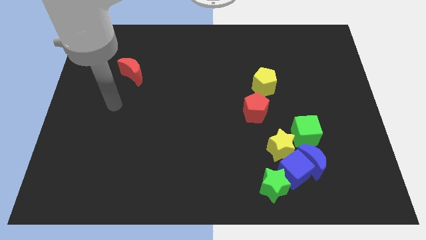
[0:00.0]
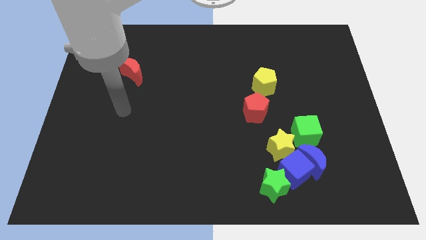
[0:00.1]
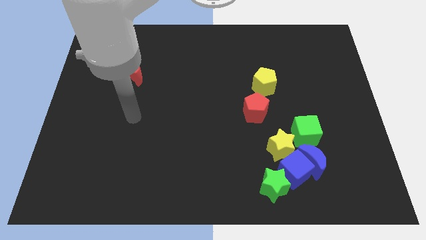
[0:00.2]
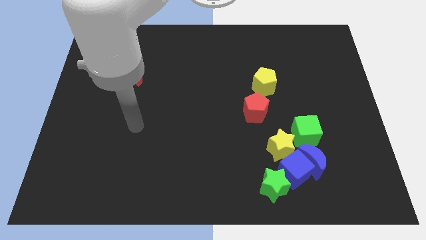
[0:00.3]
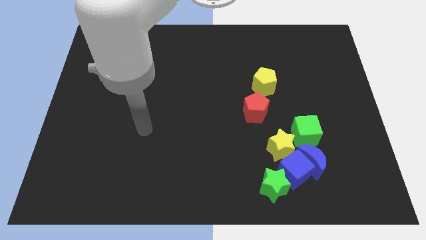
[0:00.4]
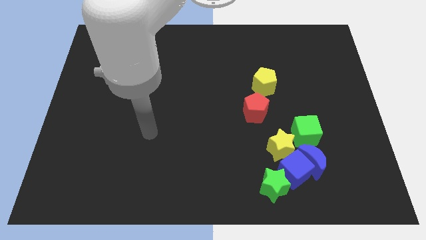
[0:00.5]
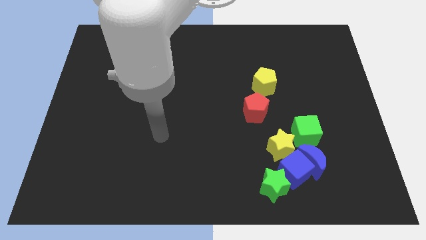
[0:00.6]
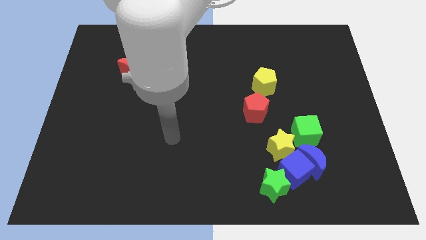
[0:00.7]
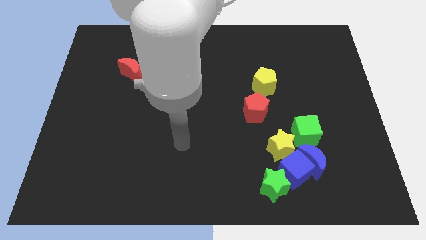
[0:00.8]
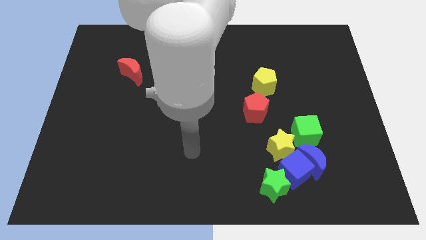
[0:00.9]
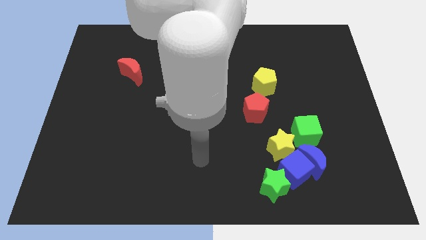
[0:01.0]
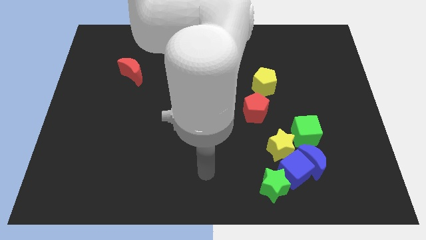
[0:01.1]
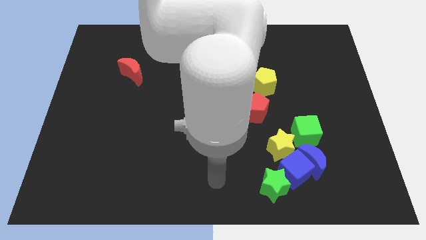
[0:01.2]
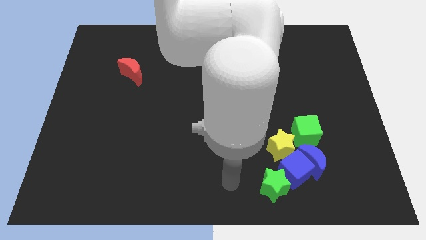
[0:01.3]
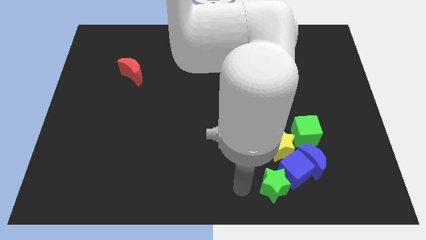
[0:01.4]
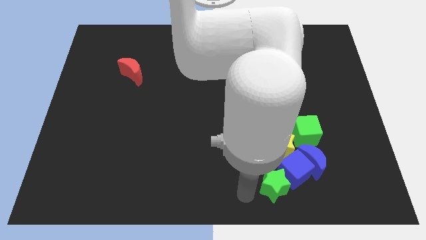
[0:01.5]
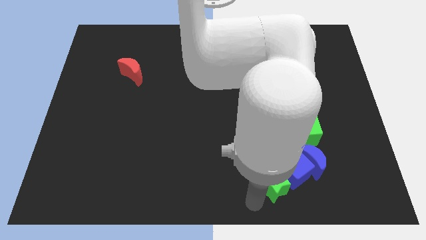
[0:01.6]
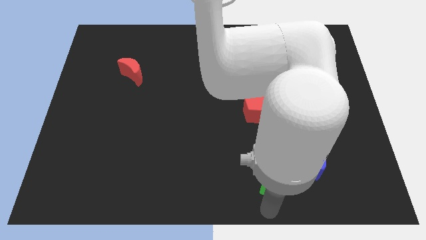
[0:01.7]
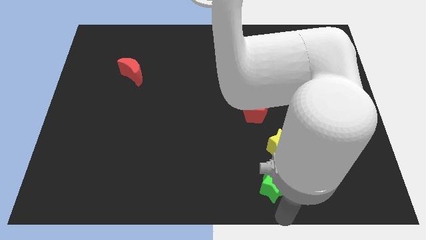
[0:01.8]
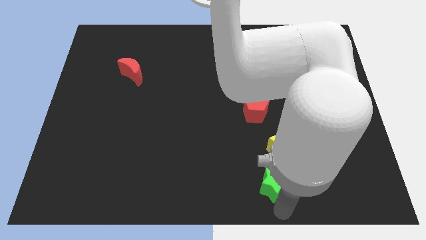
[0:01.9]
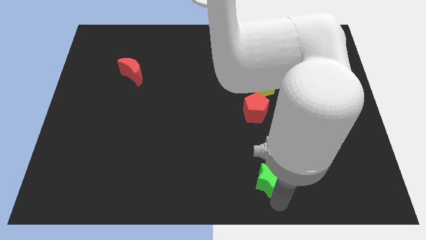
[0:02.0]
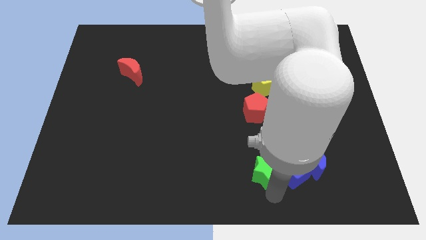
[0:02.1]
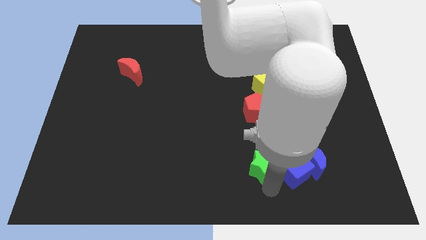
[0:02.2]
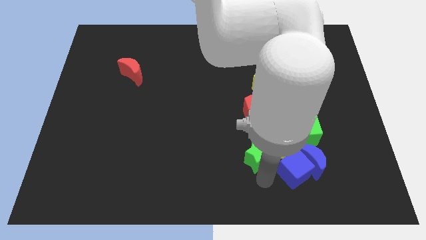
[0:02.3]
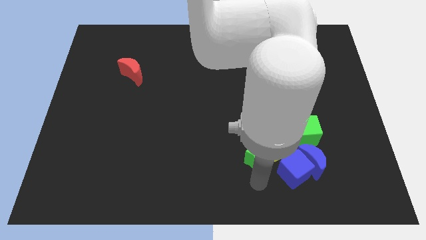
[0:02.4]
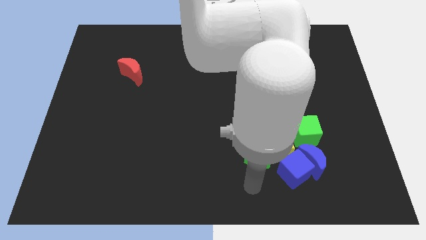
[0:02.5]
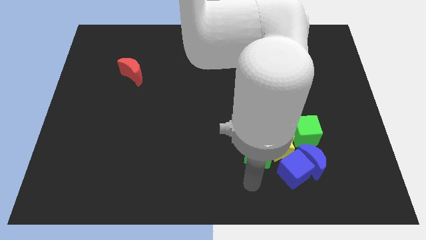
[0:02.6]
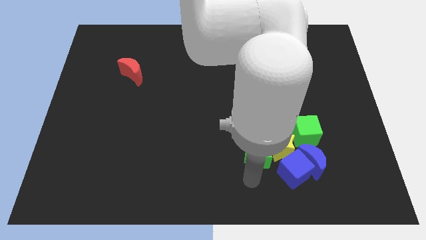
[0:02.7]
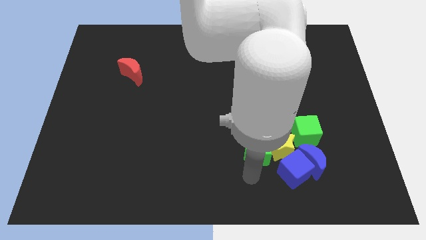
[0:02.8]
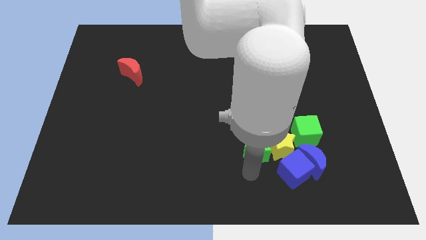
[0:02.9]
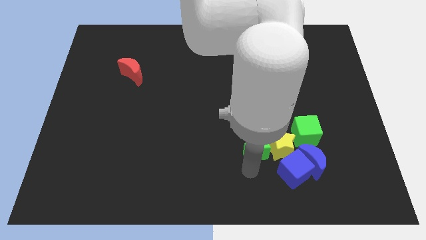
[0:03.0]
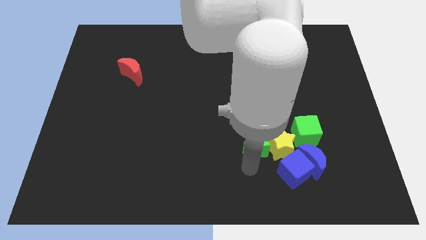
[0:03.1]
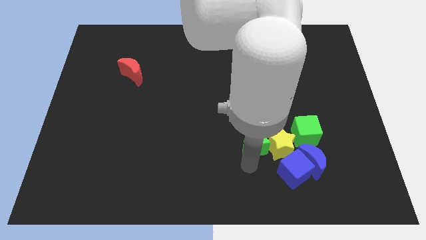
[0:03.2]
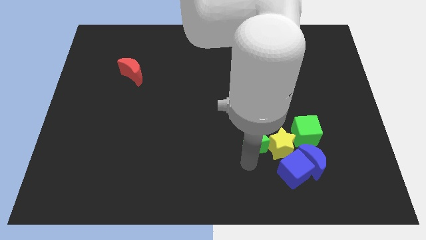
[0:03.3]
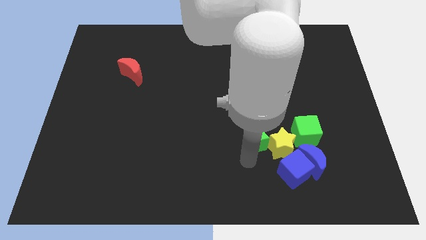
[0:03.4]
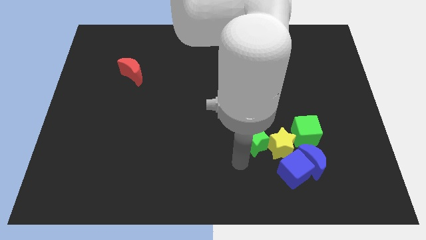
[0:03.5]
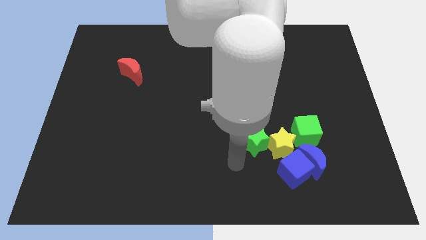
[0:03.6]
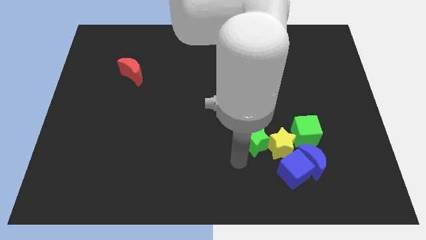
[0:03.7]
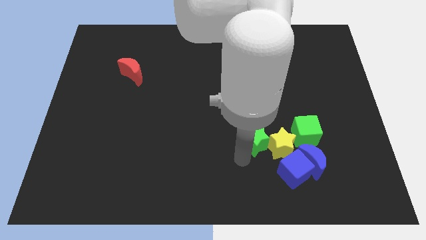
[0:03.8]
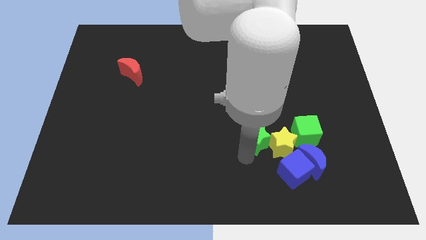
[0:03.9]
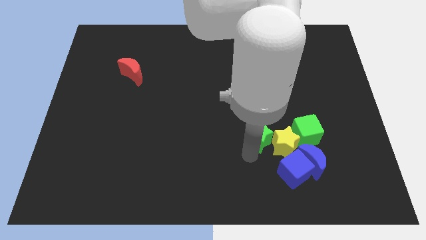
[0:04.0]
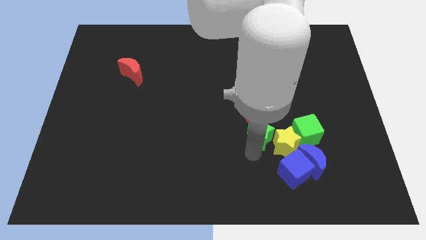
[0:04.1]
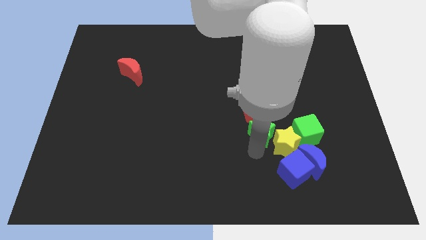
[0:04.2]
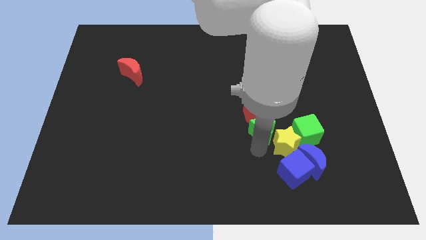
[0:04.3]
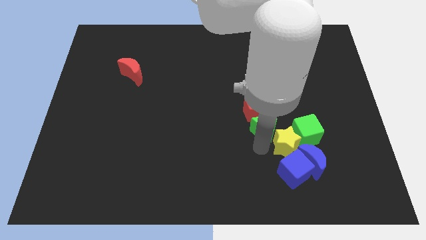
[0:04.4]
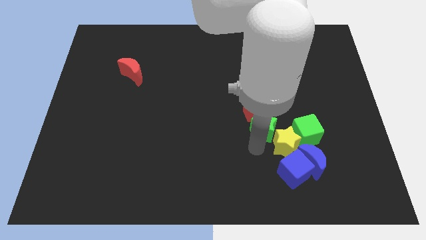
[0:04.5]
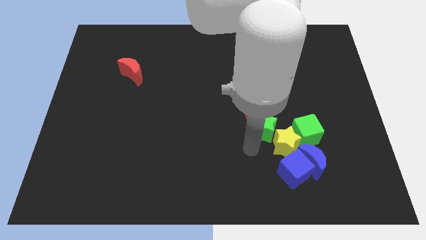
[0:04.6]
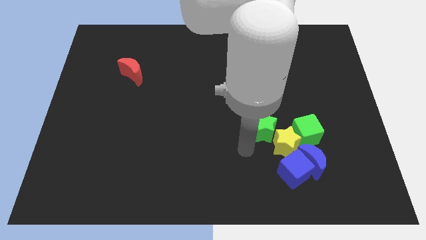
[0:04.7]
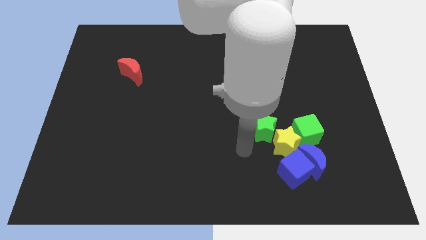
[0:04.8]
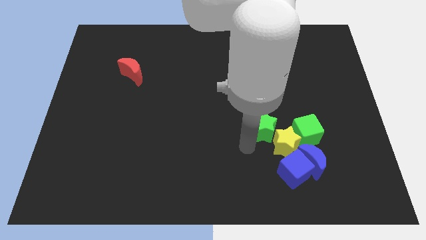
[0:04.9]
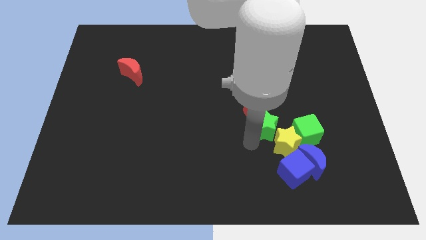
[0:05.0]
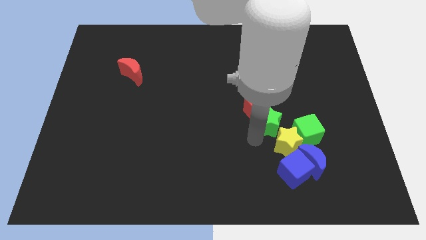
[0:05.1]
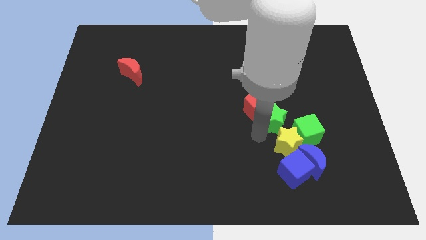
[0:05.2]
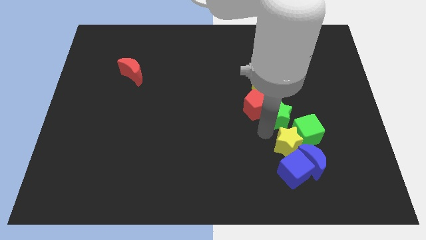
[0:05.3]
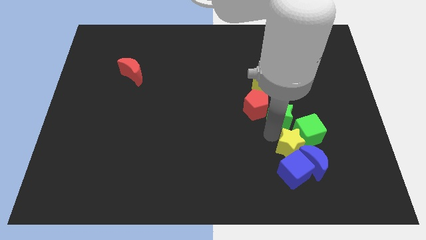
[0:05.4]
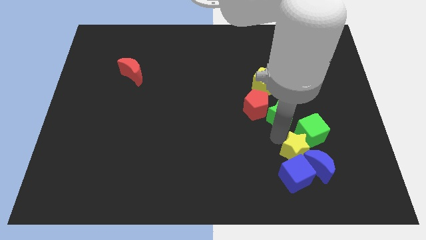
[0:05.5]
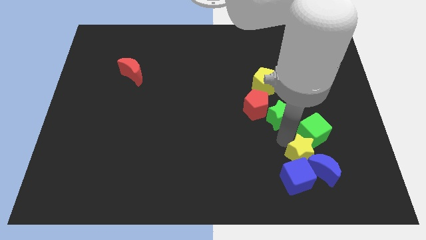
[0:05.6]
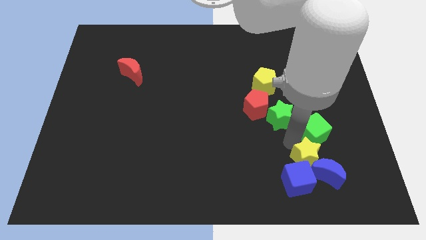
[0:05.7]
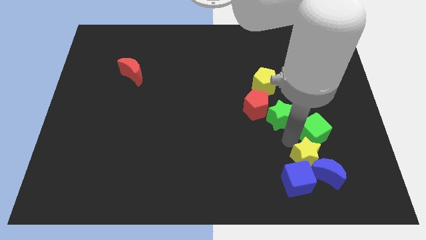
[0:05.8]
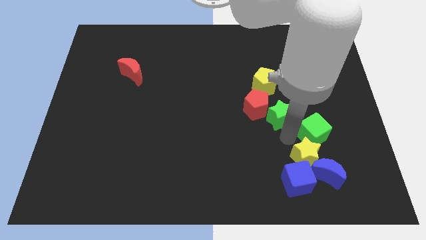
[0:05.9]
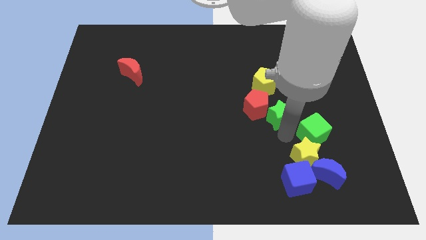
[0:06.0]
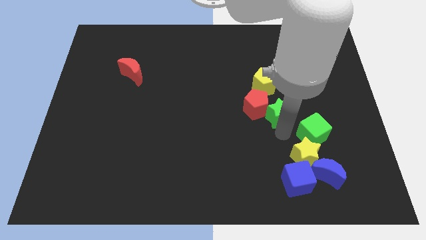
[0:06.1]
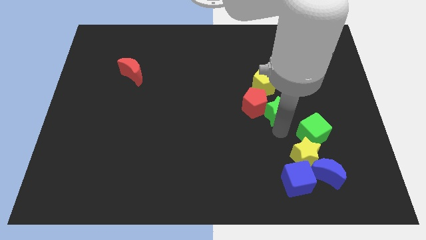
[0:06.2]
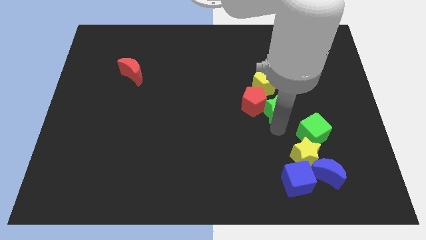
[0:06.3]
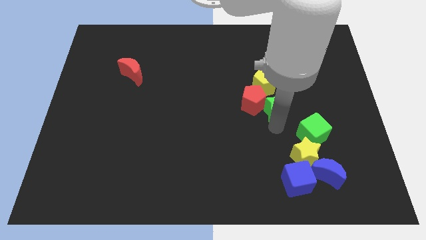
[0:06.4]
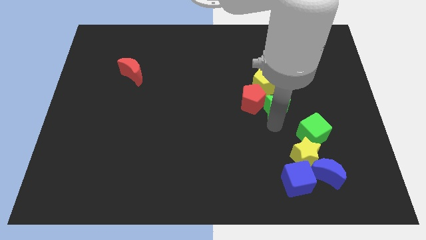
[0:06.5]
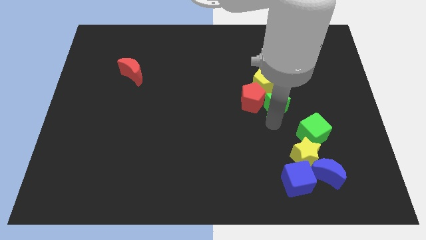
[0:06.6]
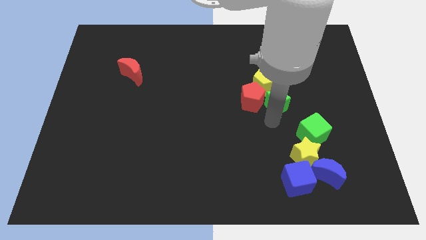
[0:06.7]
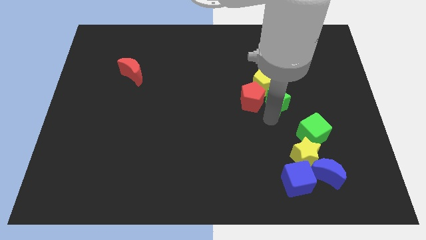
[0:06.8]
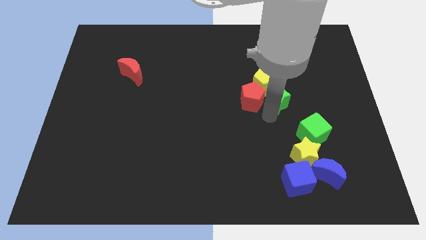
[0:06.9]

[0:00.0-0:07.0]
push the green star to the yellow pentagon

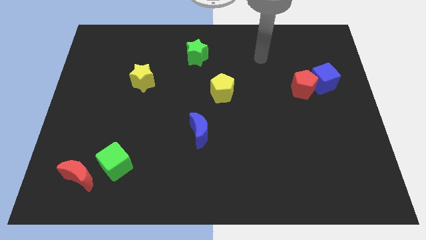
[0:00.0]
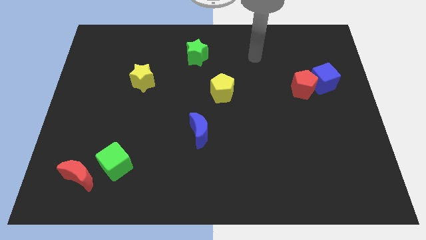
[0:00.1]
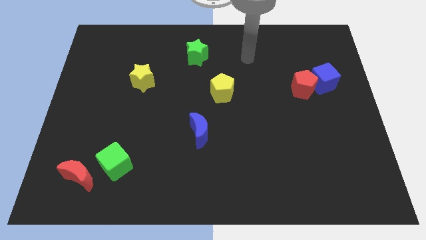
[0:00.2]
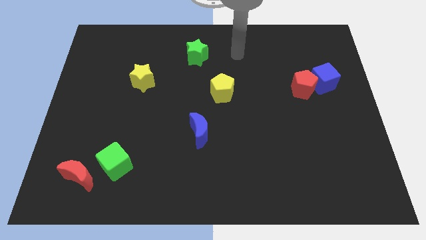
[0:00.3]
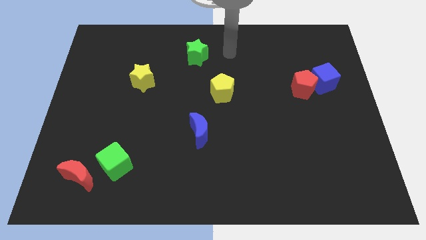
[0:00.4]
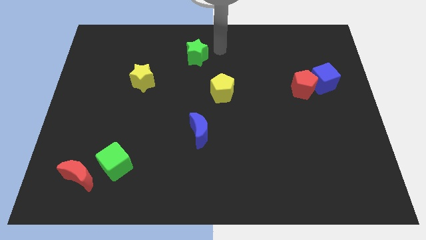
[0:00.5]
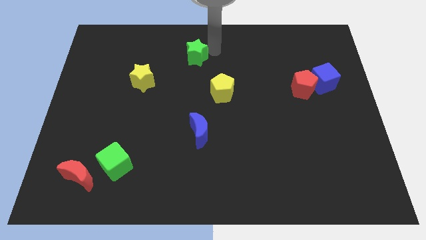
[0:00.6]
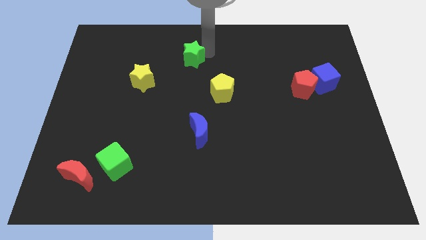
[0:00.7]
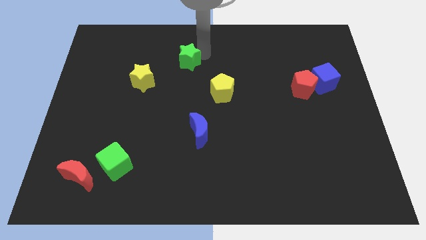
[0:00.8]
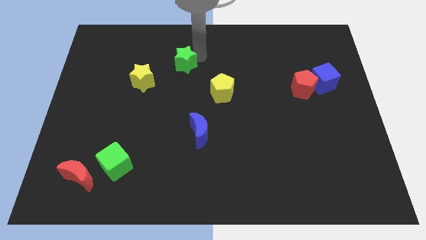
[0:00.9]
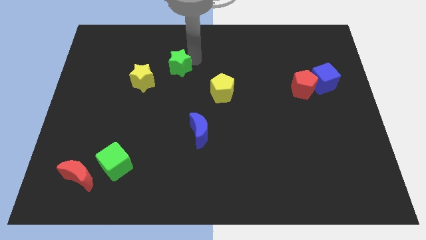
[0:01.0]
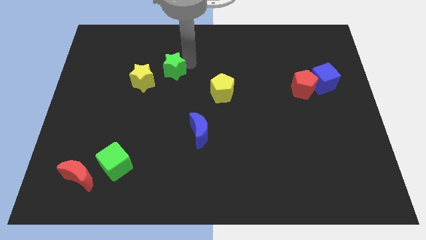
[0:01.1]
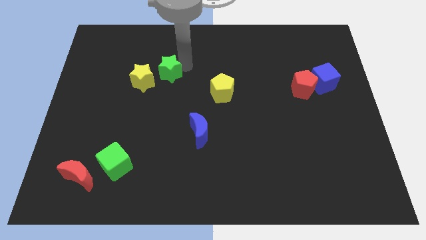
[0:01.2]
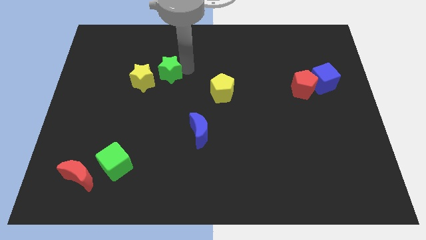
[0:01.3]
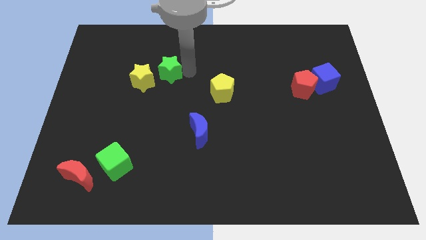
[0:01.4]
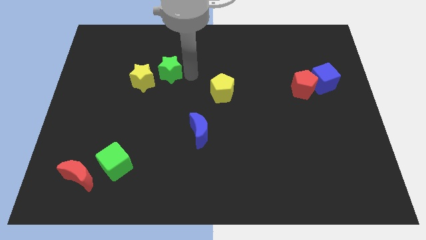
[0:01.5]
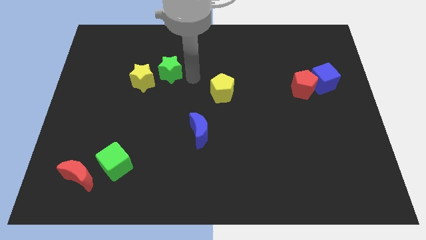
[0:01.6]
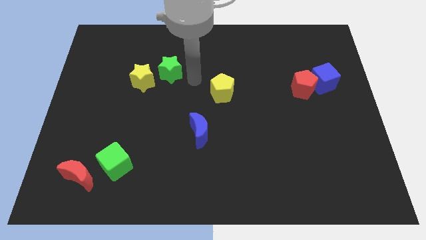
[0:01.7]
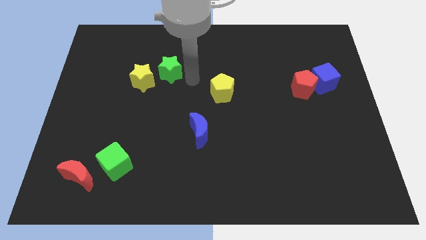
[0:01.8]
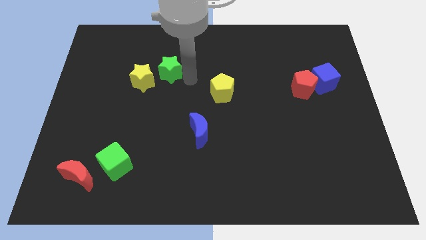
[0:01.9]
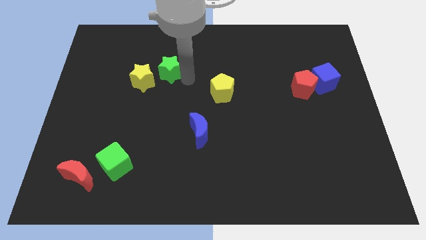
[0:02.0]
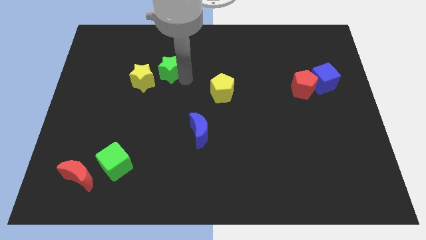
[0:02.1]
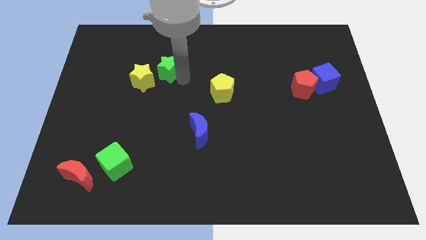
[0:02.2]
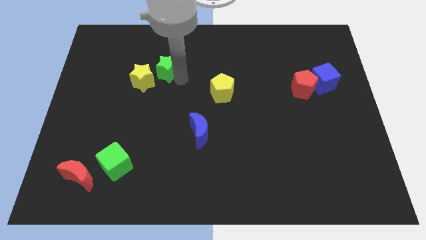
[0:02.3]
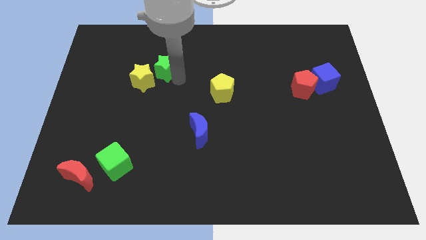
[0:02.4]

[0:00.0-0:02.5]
slide the green star close to the yellow star
